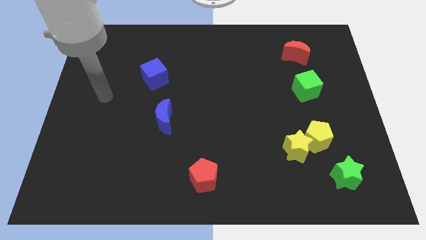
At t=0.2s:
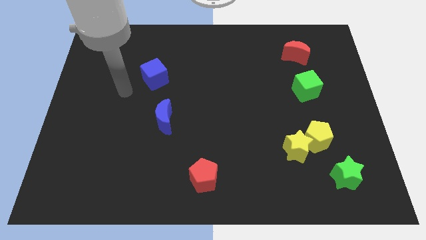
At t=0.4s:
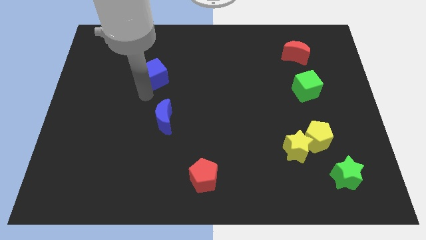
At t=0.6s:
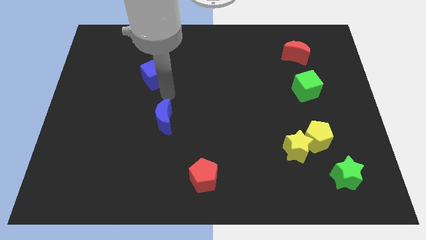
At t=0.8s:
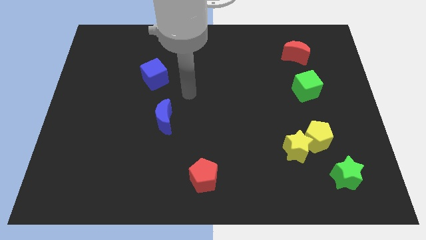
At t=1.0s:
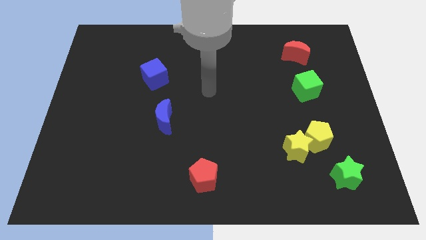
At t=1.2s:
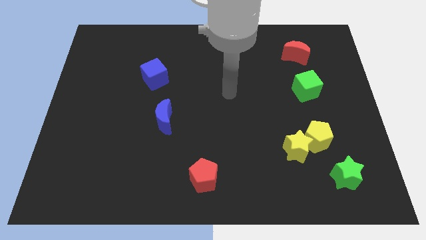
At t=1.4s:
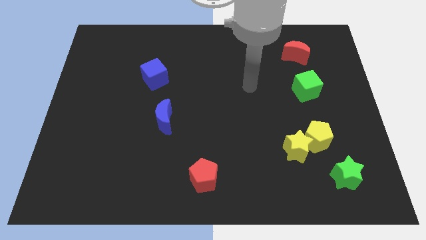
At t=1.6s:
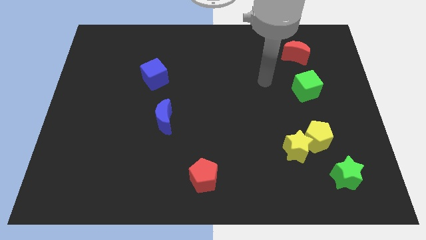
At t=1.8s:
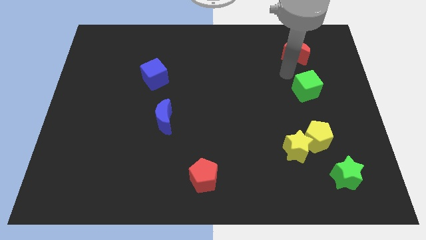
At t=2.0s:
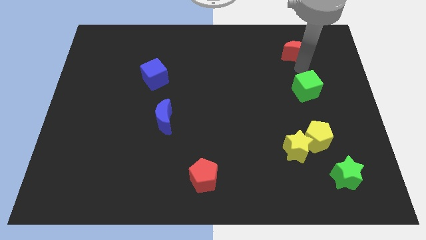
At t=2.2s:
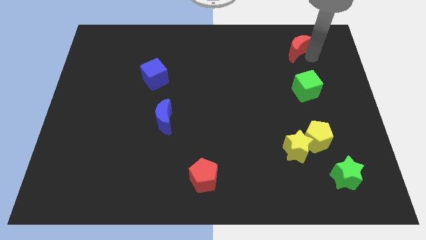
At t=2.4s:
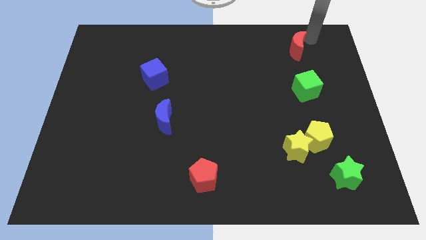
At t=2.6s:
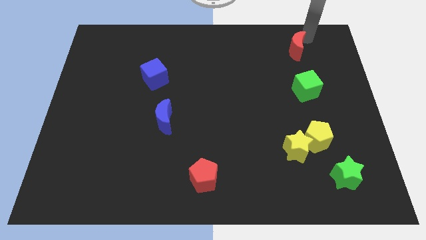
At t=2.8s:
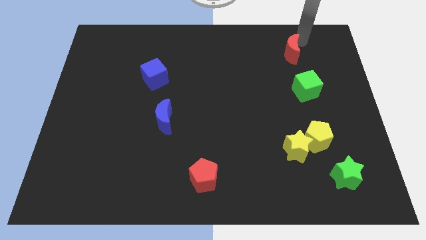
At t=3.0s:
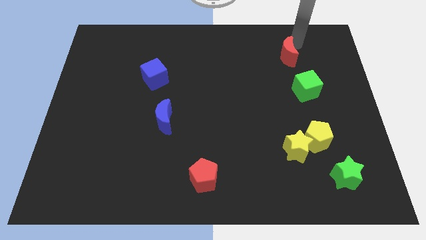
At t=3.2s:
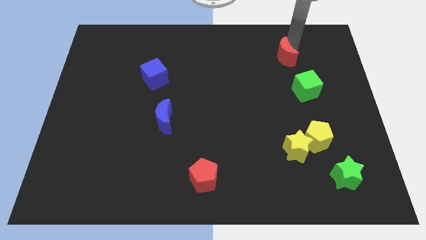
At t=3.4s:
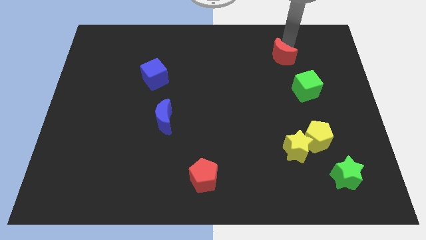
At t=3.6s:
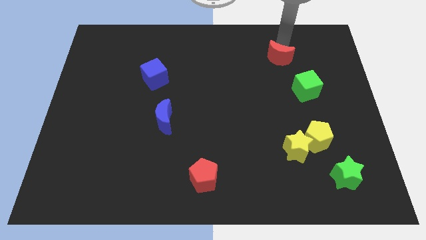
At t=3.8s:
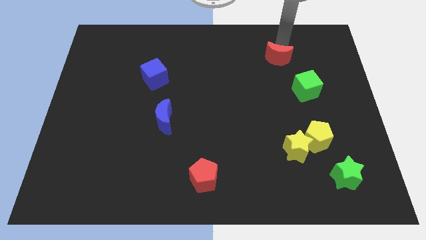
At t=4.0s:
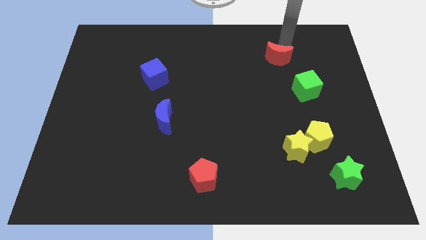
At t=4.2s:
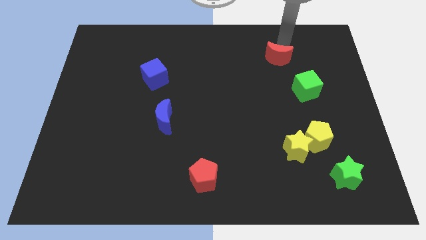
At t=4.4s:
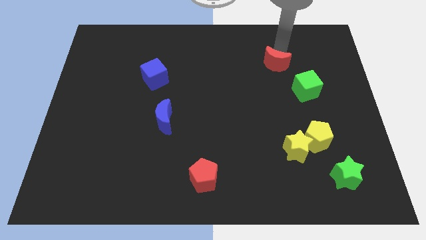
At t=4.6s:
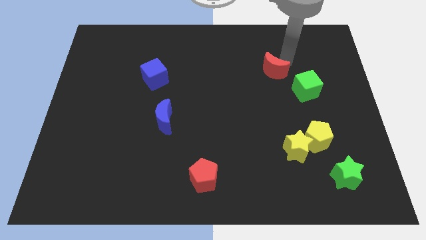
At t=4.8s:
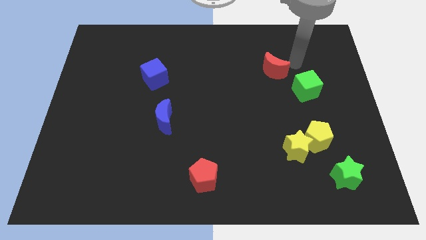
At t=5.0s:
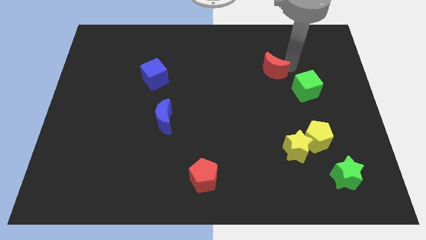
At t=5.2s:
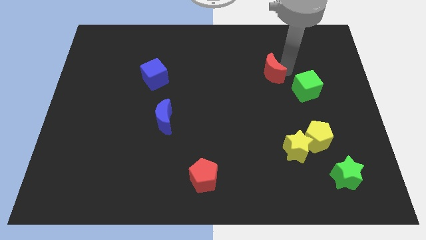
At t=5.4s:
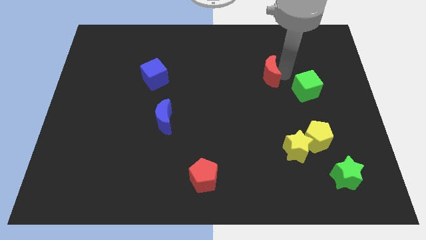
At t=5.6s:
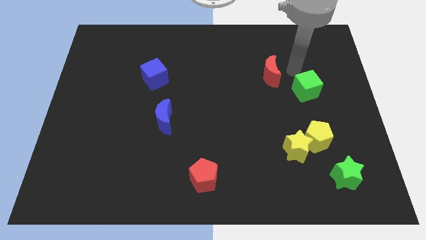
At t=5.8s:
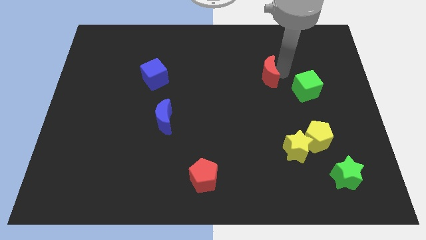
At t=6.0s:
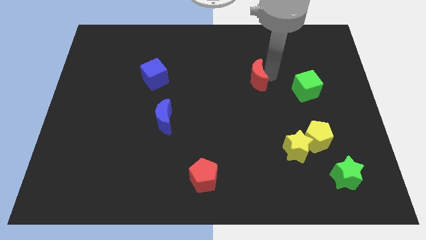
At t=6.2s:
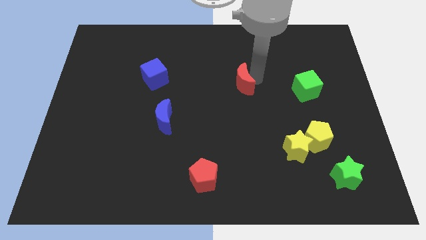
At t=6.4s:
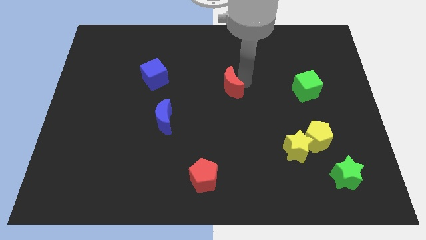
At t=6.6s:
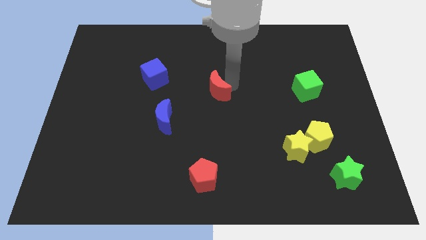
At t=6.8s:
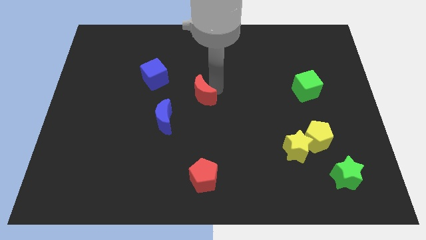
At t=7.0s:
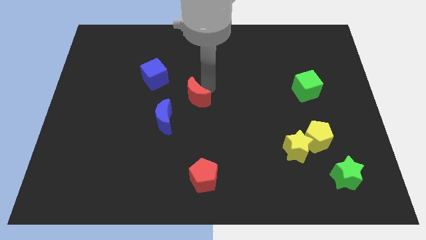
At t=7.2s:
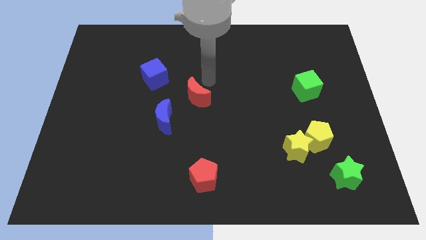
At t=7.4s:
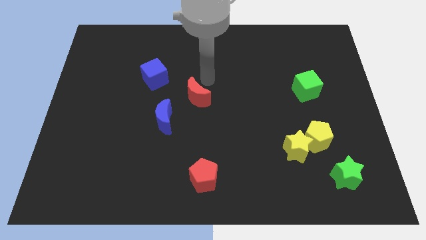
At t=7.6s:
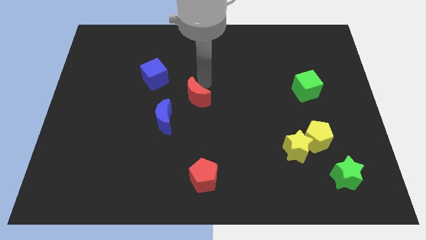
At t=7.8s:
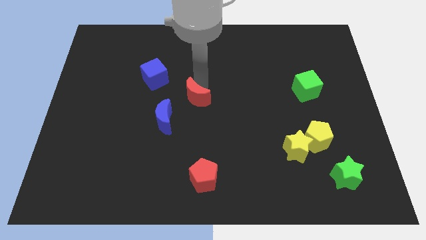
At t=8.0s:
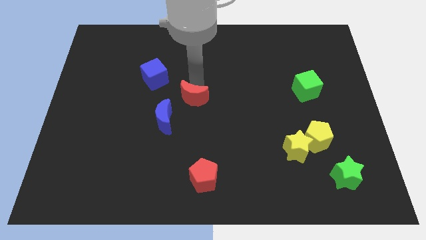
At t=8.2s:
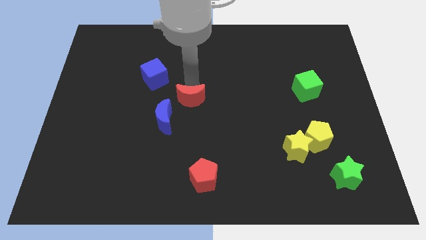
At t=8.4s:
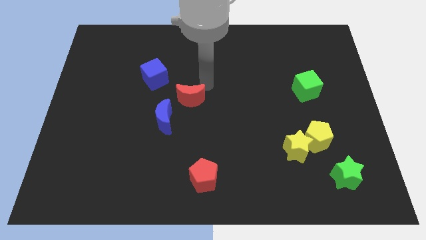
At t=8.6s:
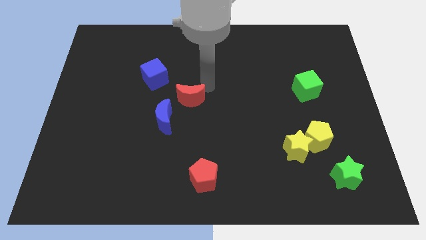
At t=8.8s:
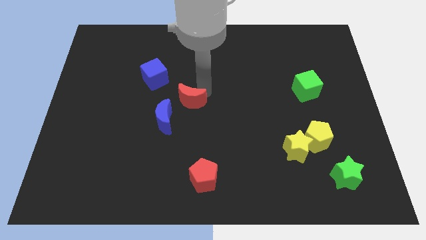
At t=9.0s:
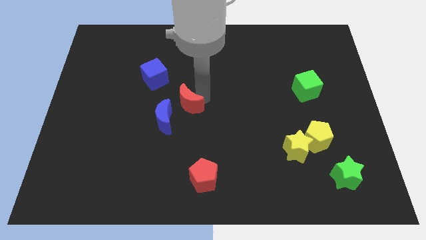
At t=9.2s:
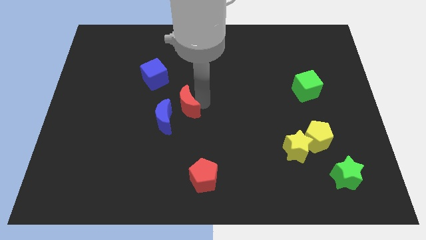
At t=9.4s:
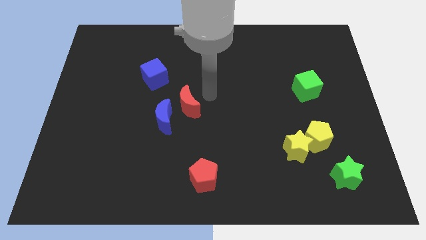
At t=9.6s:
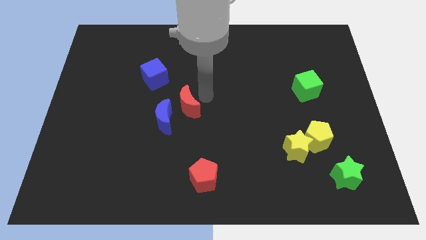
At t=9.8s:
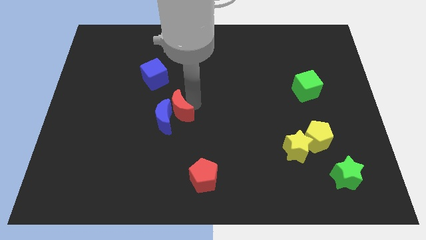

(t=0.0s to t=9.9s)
push the red moon next to the blue moon

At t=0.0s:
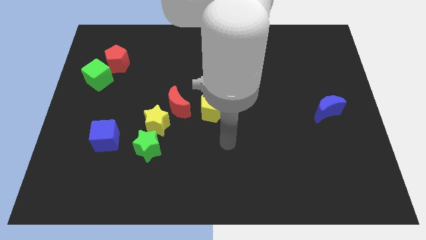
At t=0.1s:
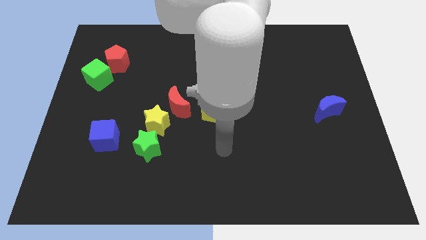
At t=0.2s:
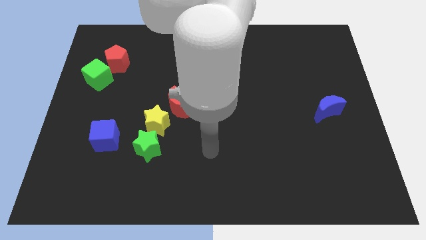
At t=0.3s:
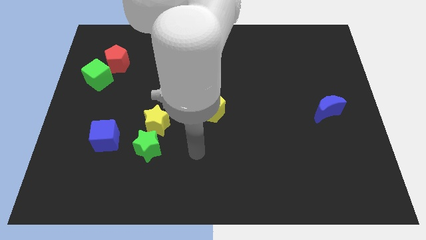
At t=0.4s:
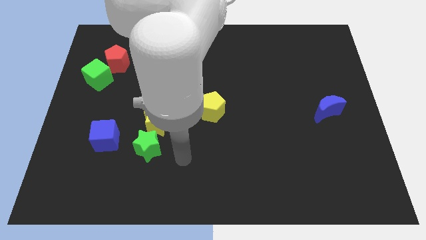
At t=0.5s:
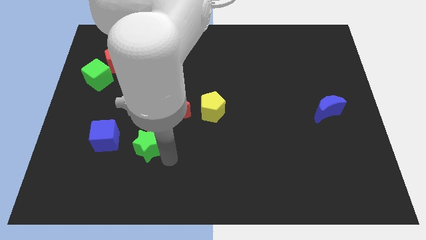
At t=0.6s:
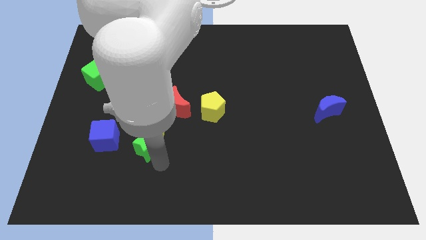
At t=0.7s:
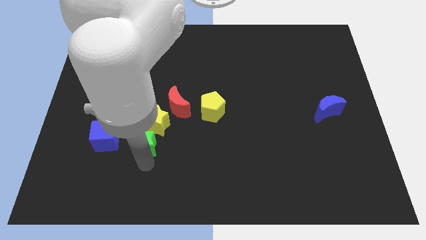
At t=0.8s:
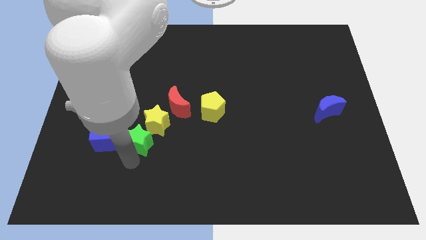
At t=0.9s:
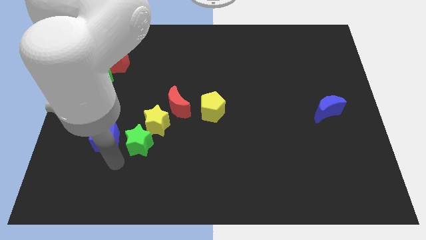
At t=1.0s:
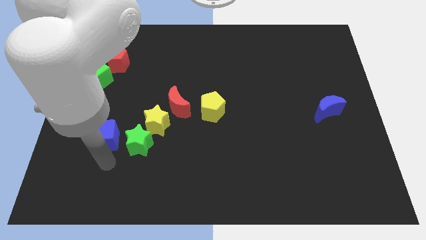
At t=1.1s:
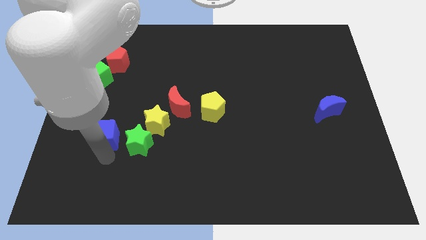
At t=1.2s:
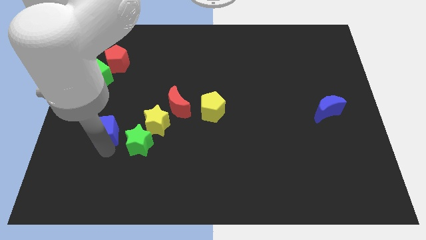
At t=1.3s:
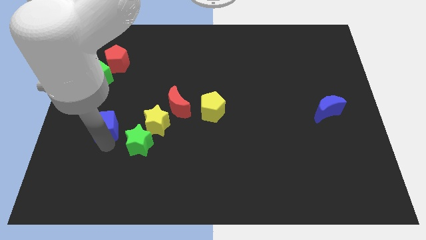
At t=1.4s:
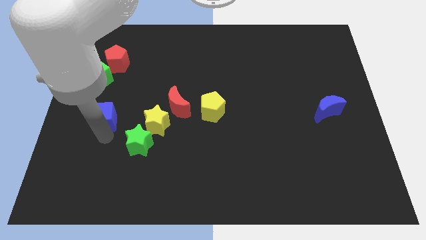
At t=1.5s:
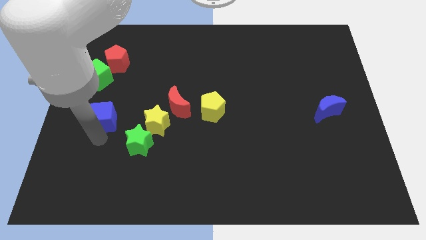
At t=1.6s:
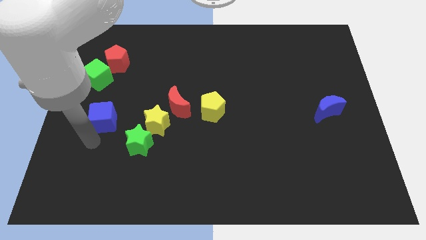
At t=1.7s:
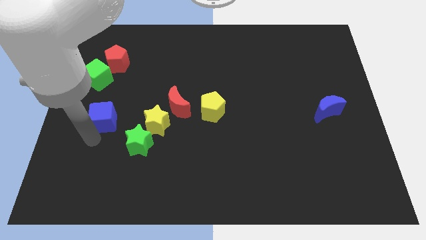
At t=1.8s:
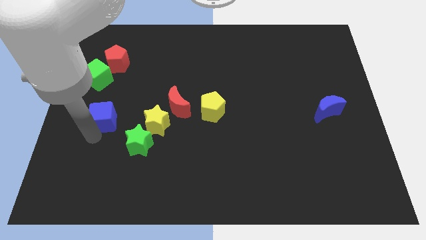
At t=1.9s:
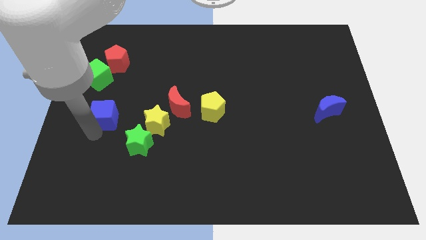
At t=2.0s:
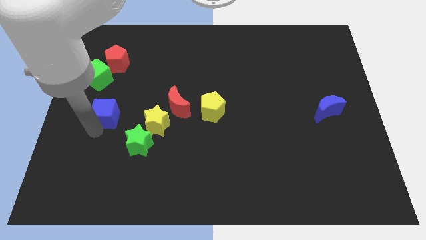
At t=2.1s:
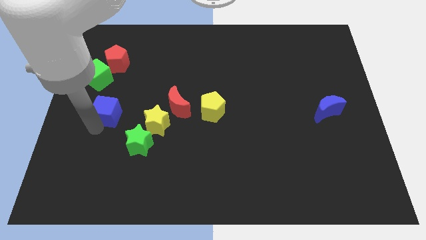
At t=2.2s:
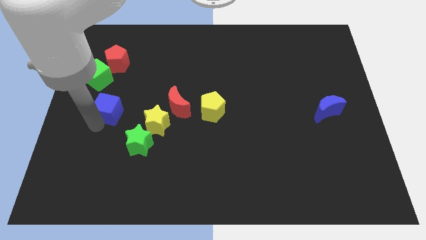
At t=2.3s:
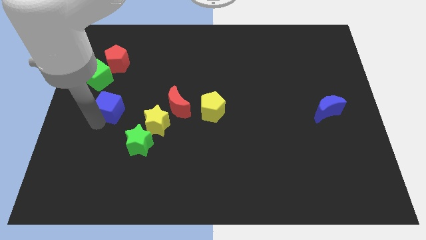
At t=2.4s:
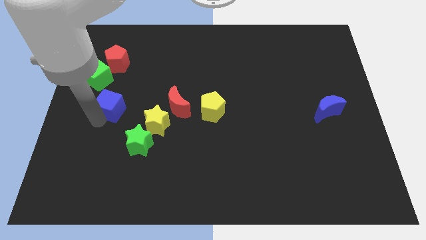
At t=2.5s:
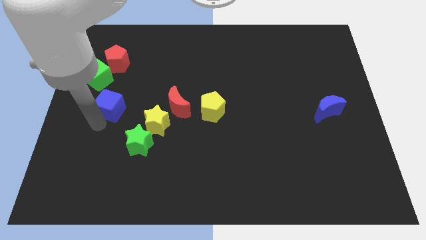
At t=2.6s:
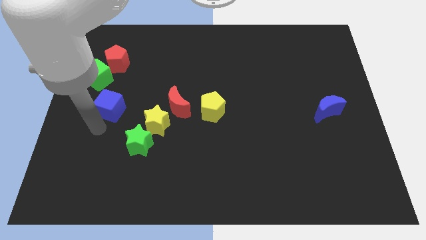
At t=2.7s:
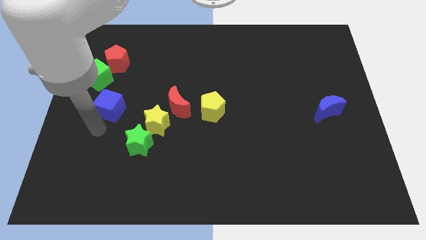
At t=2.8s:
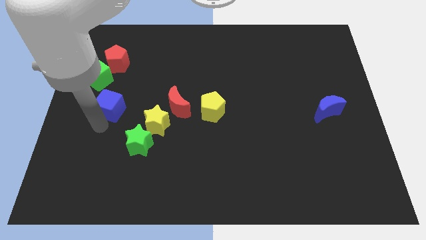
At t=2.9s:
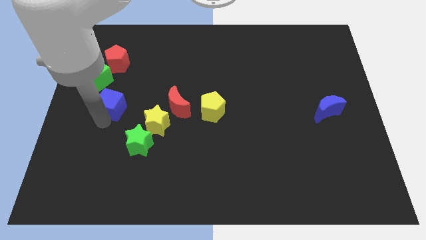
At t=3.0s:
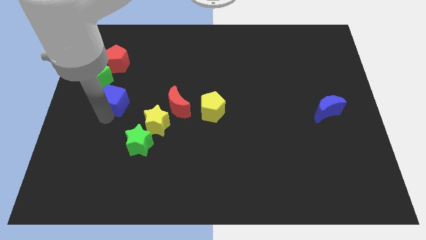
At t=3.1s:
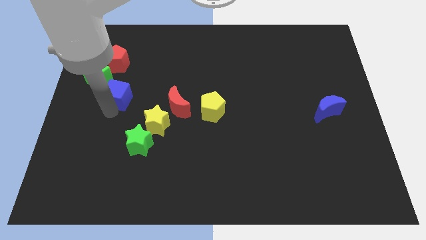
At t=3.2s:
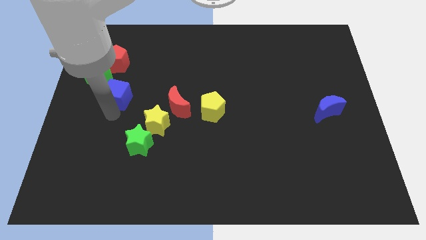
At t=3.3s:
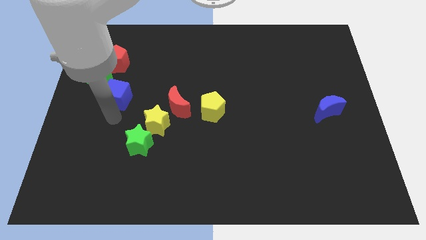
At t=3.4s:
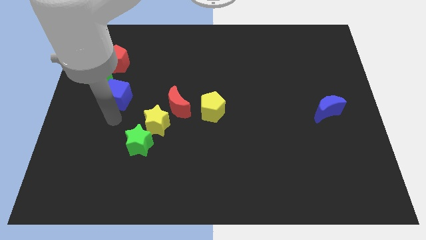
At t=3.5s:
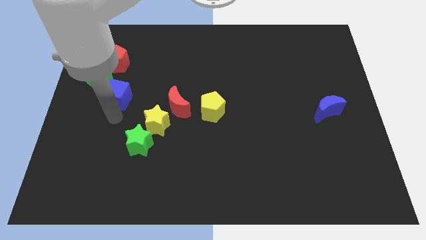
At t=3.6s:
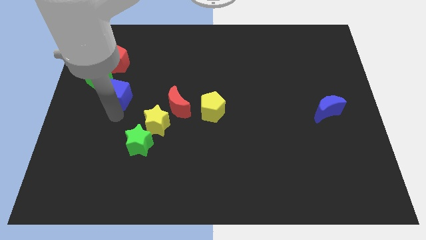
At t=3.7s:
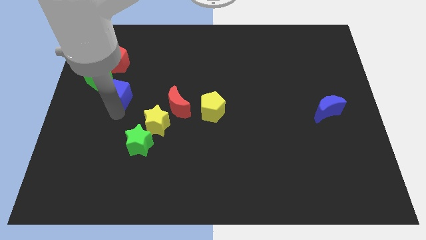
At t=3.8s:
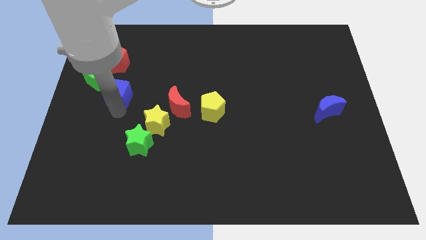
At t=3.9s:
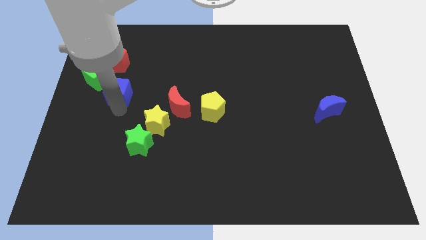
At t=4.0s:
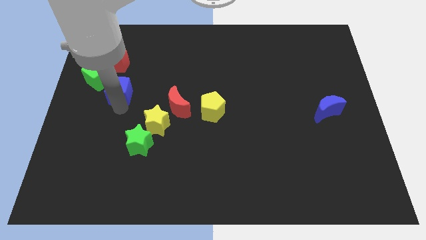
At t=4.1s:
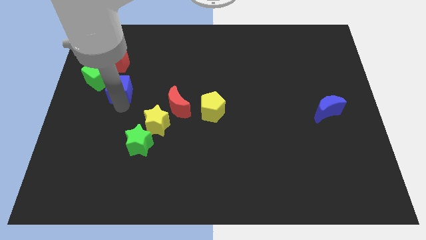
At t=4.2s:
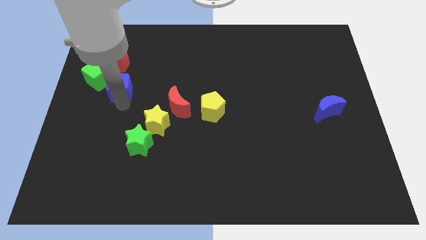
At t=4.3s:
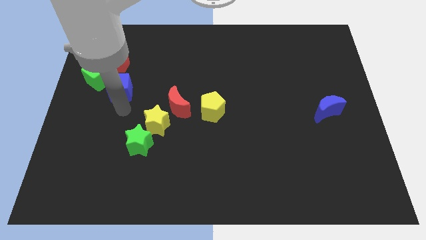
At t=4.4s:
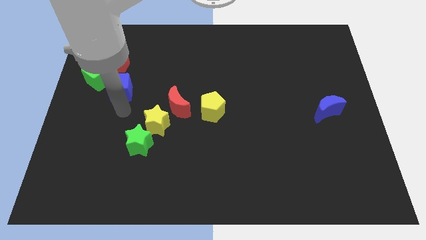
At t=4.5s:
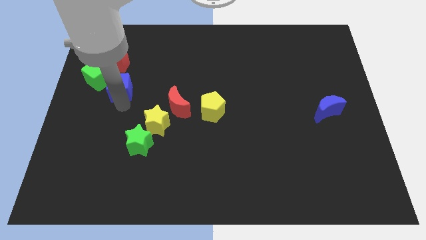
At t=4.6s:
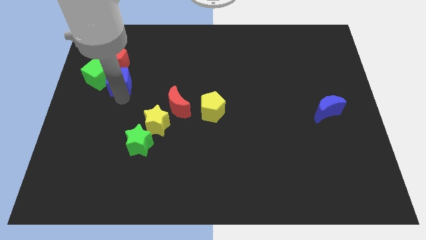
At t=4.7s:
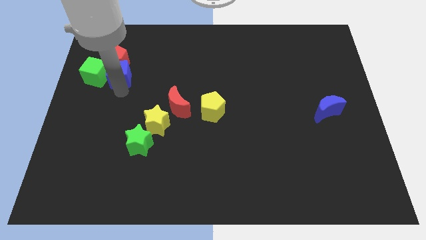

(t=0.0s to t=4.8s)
move the blue cube close to the red pentagon
